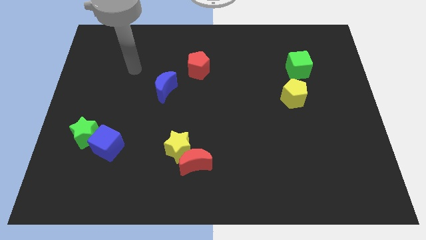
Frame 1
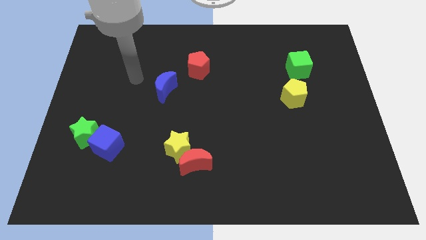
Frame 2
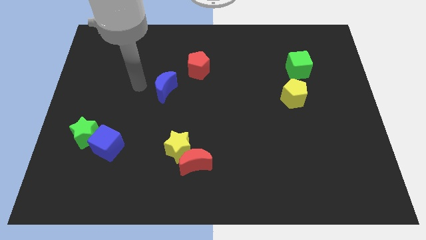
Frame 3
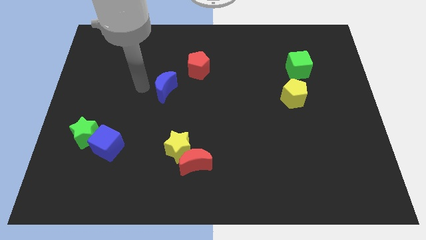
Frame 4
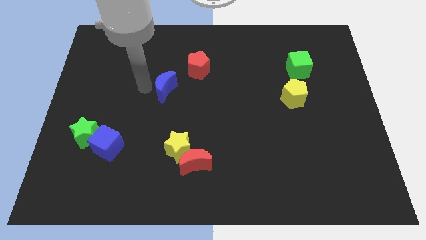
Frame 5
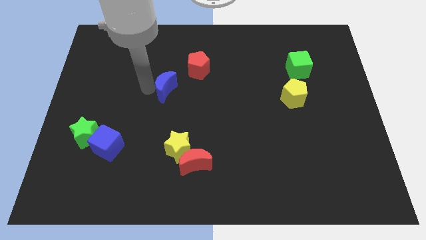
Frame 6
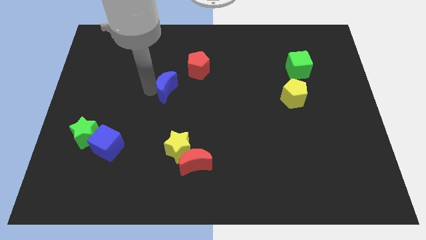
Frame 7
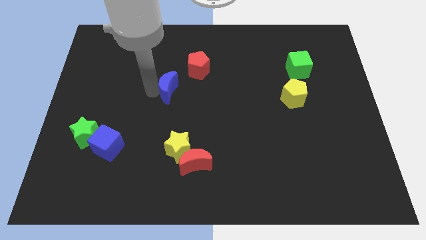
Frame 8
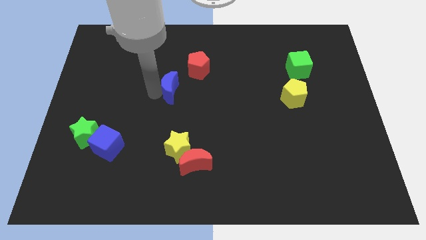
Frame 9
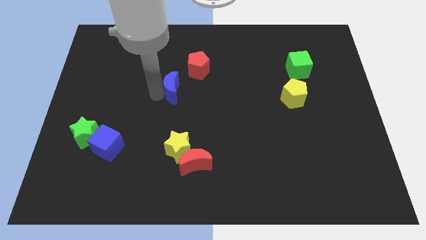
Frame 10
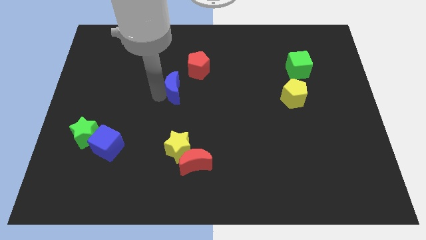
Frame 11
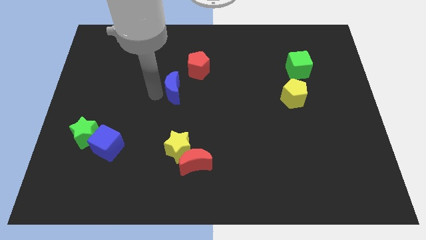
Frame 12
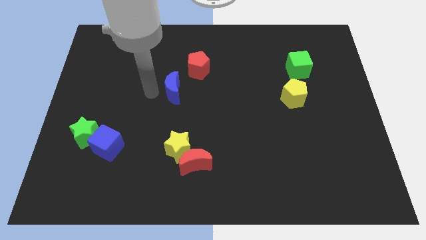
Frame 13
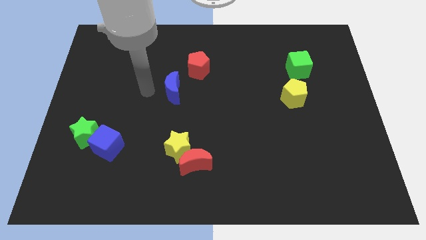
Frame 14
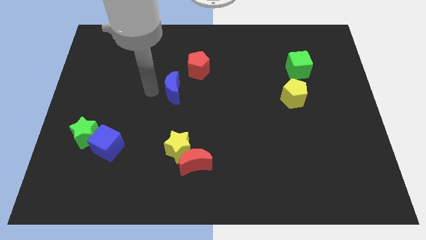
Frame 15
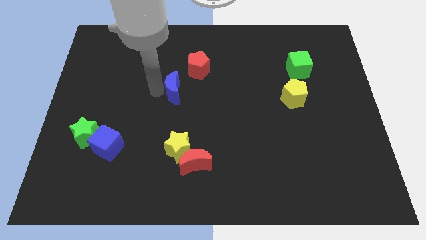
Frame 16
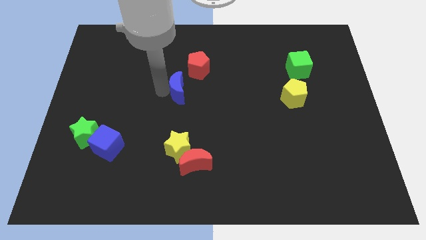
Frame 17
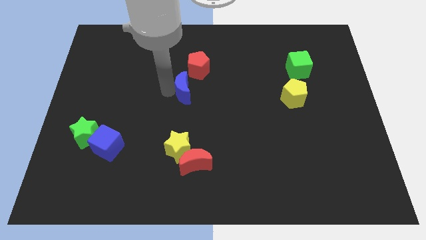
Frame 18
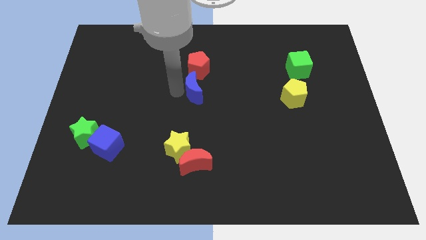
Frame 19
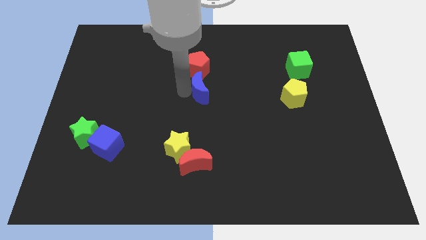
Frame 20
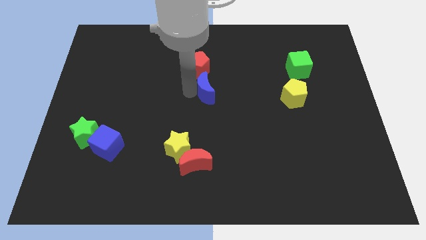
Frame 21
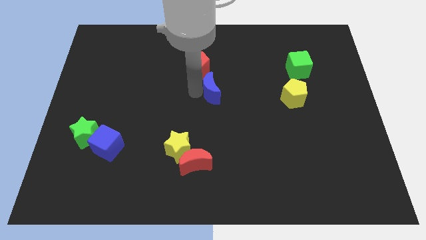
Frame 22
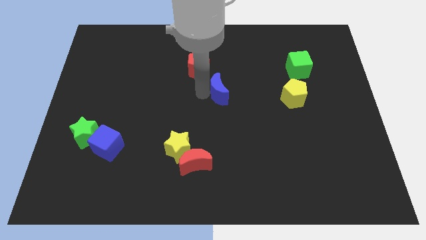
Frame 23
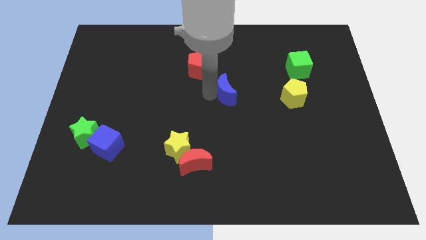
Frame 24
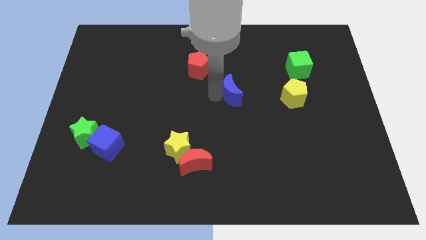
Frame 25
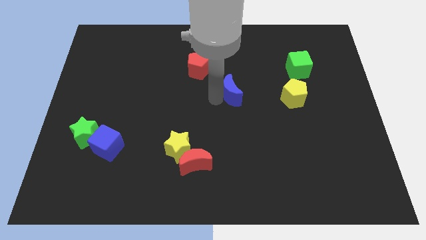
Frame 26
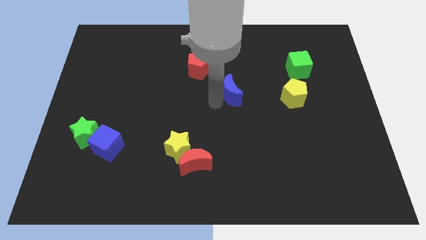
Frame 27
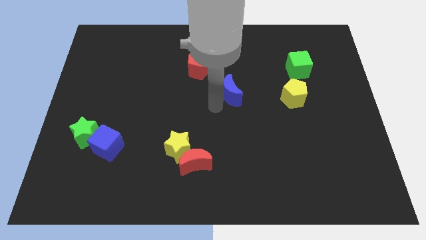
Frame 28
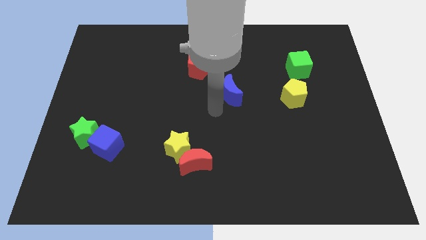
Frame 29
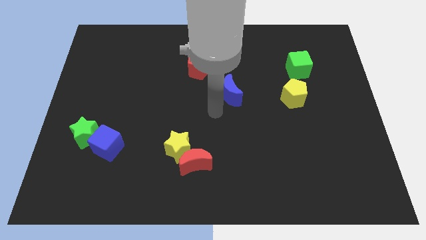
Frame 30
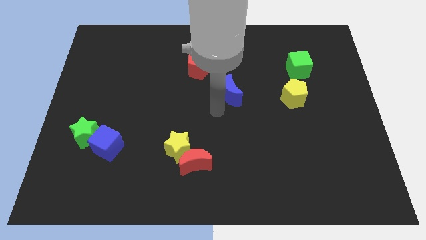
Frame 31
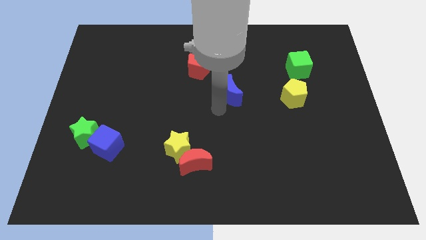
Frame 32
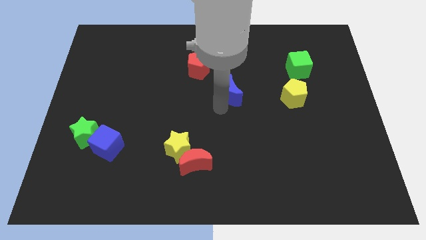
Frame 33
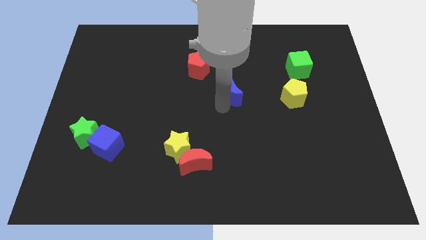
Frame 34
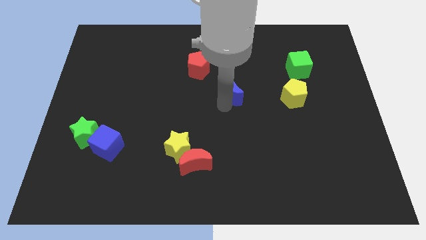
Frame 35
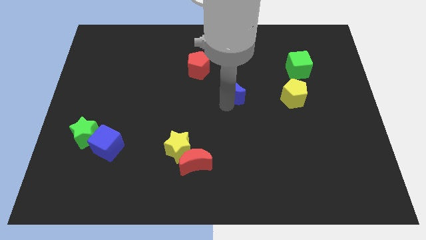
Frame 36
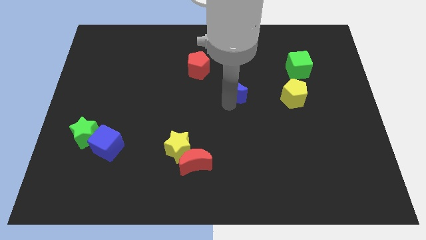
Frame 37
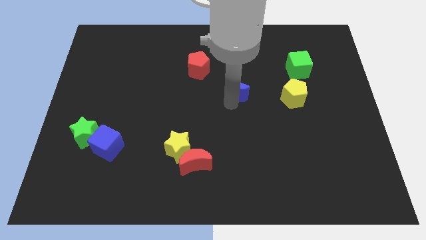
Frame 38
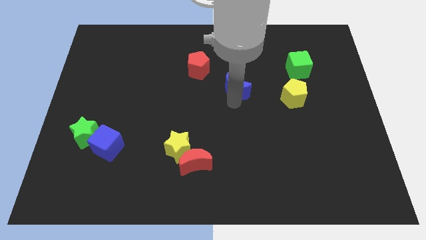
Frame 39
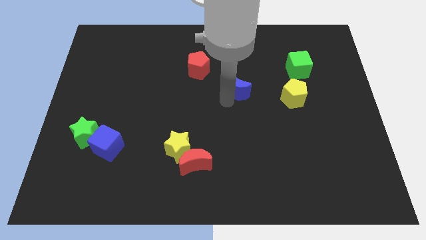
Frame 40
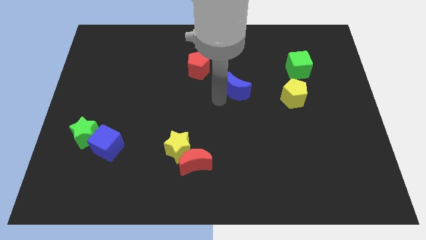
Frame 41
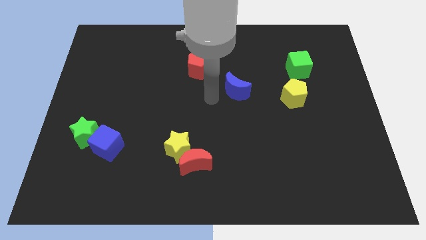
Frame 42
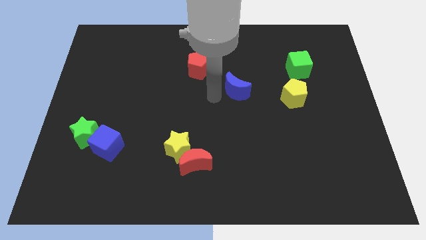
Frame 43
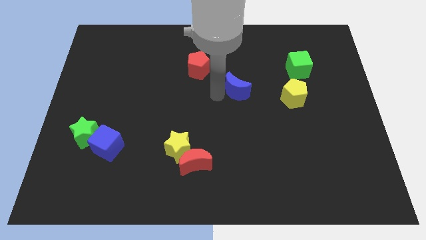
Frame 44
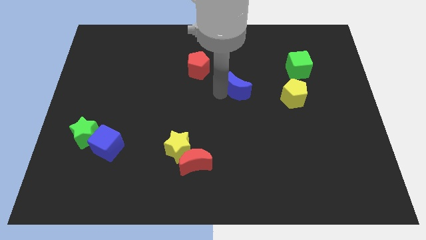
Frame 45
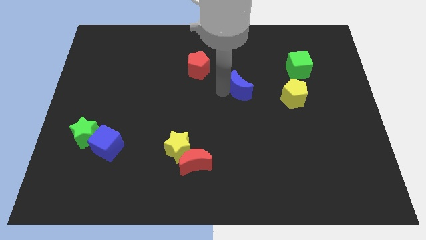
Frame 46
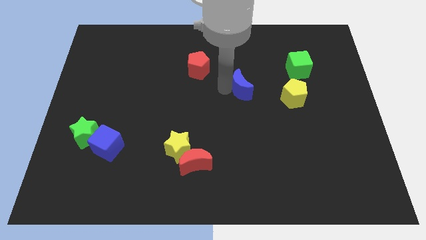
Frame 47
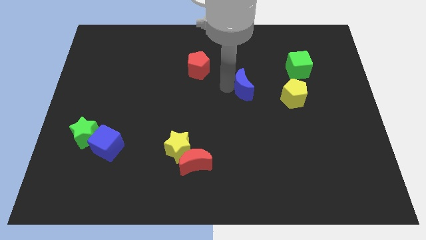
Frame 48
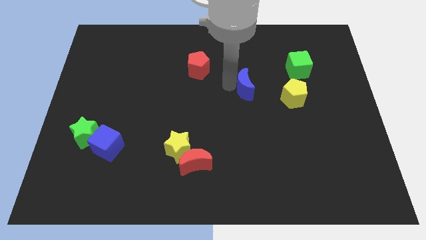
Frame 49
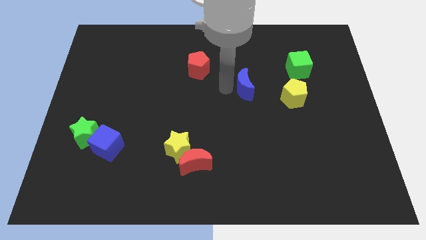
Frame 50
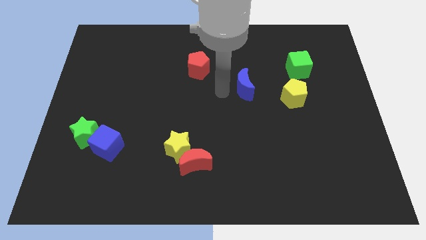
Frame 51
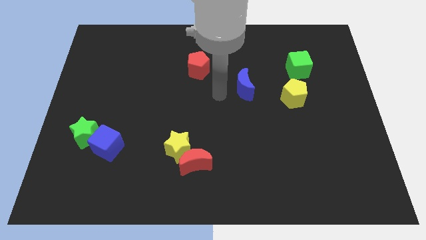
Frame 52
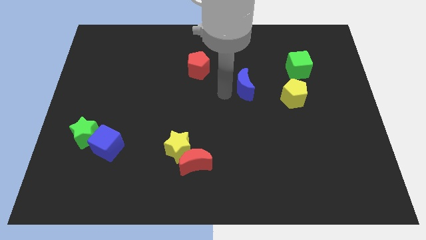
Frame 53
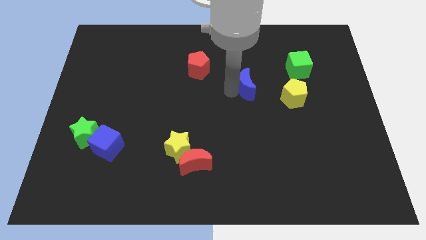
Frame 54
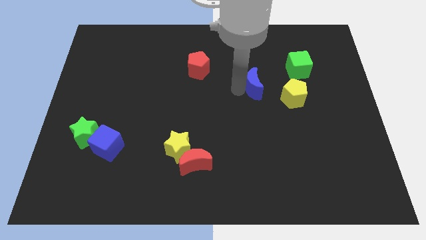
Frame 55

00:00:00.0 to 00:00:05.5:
move the blue moon diagonally up and to the left of the yellow pentagon

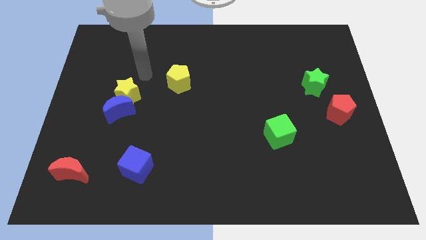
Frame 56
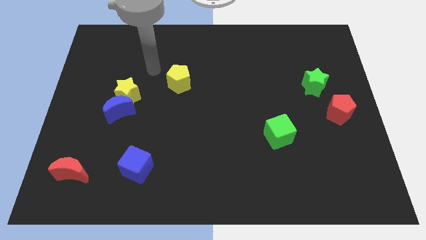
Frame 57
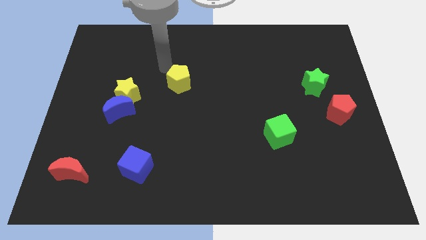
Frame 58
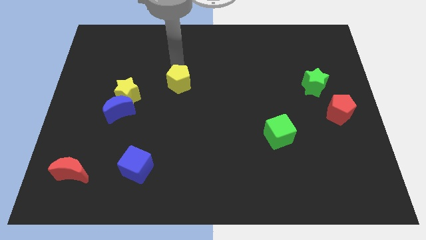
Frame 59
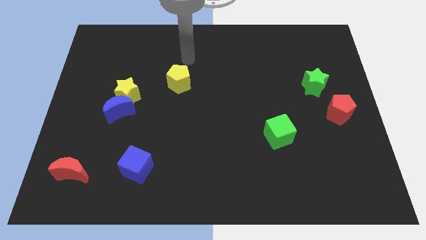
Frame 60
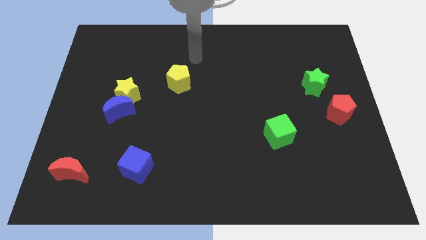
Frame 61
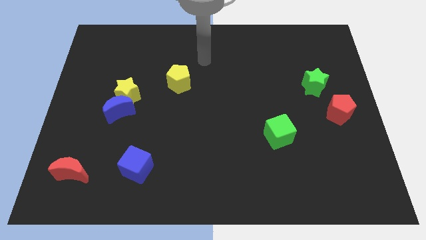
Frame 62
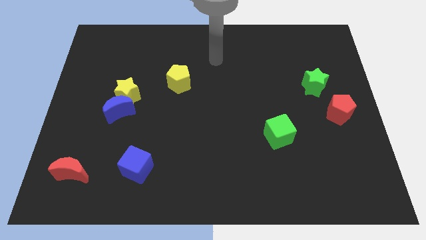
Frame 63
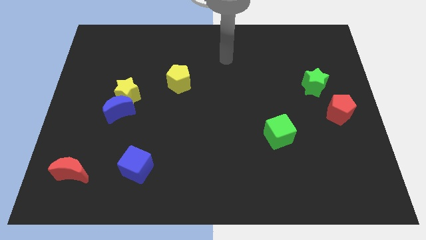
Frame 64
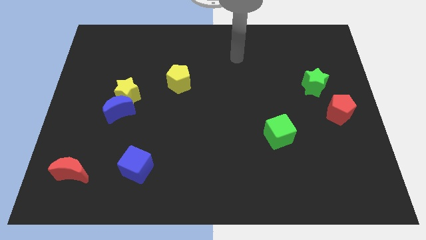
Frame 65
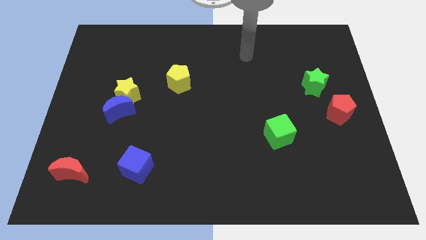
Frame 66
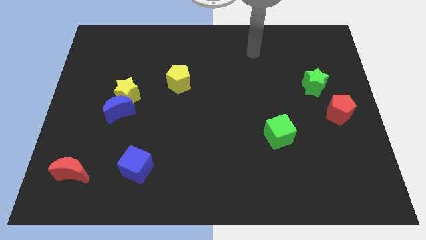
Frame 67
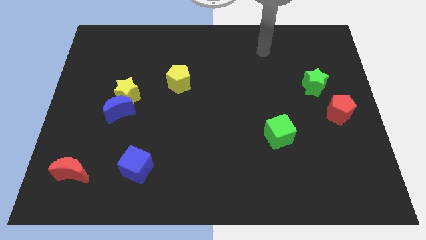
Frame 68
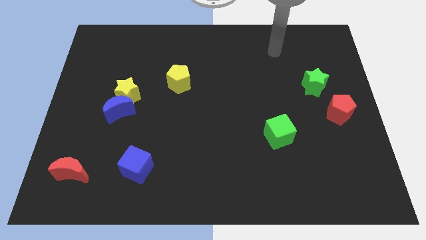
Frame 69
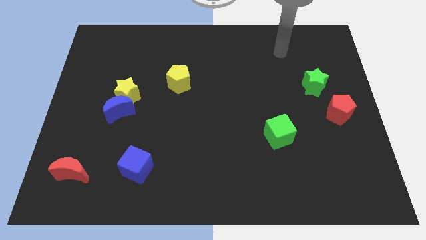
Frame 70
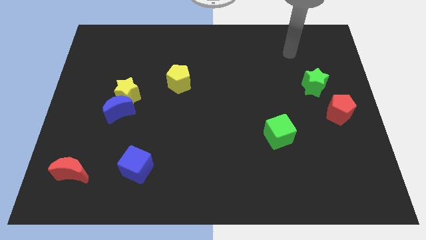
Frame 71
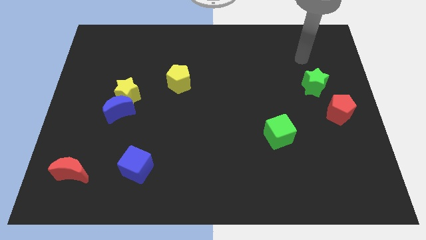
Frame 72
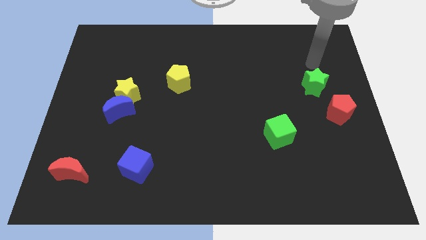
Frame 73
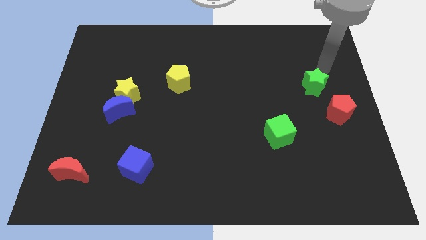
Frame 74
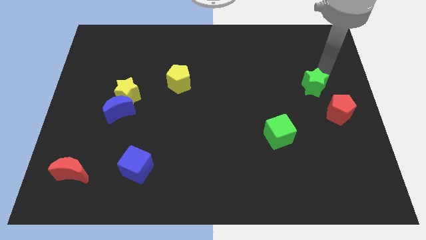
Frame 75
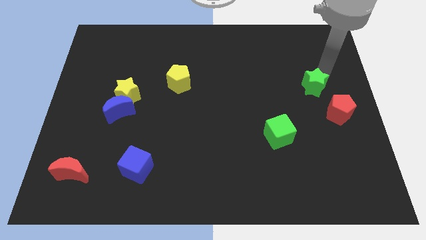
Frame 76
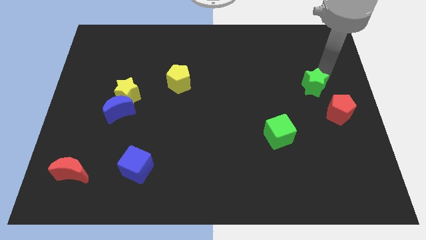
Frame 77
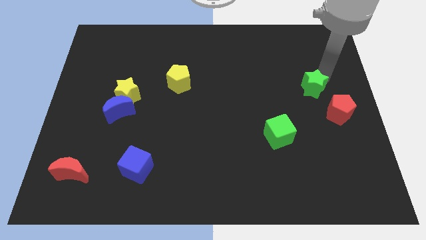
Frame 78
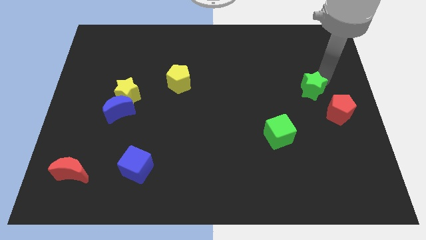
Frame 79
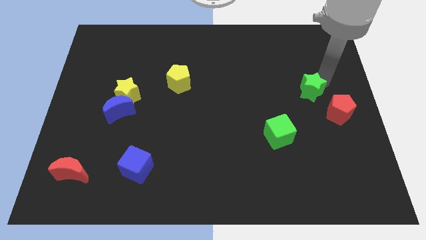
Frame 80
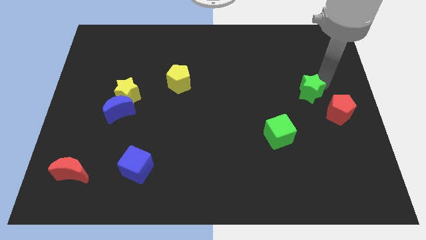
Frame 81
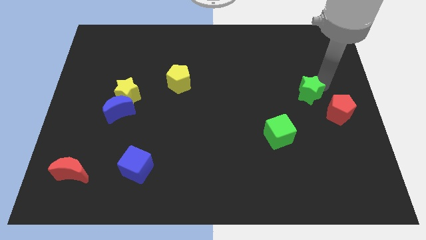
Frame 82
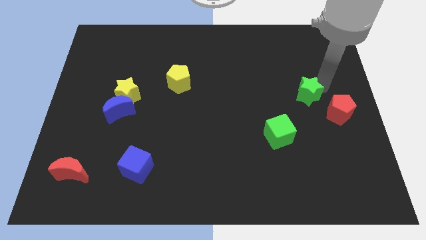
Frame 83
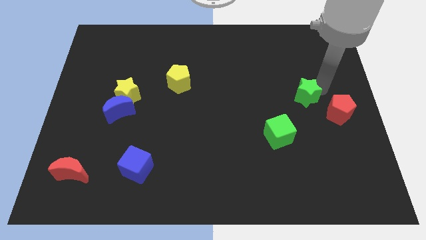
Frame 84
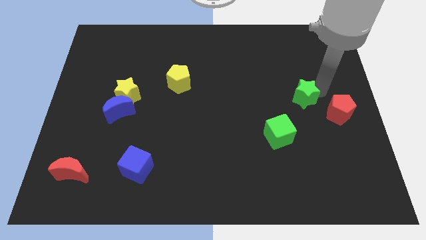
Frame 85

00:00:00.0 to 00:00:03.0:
push the green star left of the red pentagon
